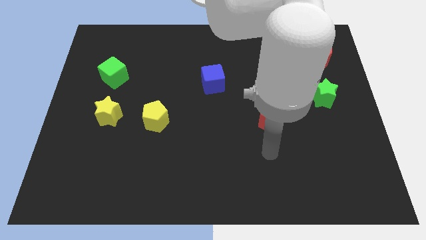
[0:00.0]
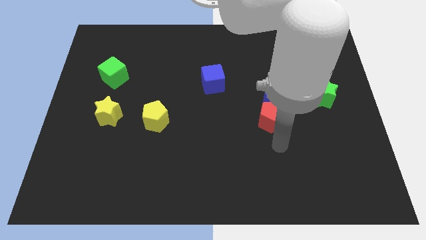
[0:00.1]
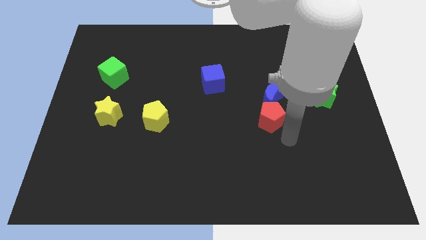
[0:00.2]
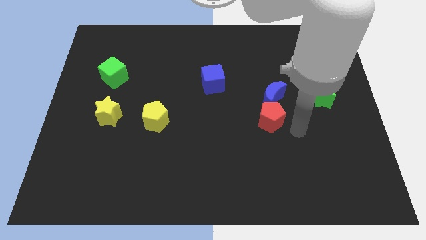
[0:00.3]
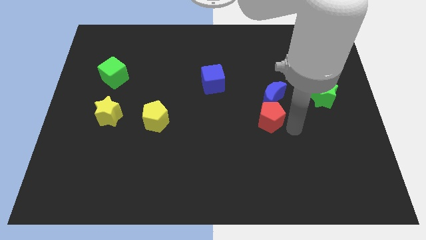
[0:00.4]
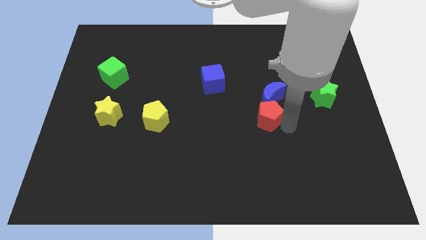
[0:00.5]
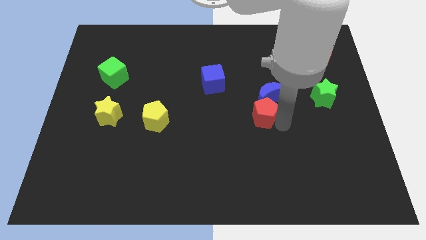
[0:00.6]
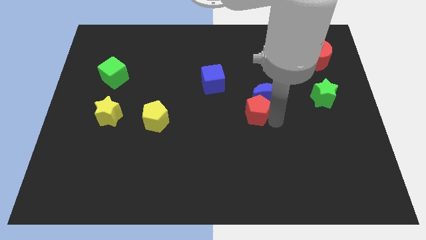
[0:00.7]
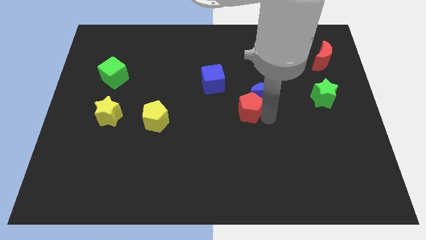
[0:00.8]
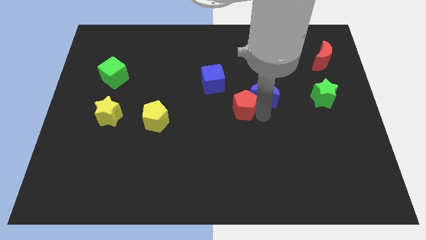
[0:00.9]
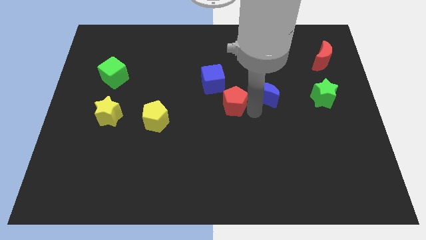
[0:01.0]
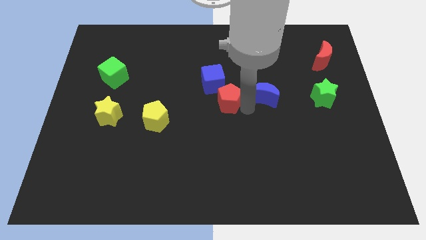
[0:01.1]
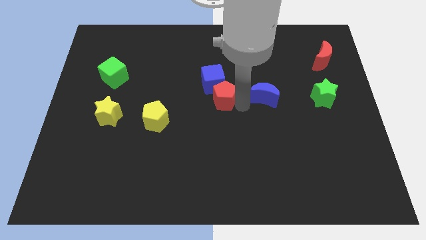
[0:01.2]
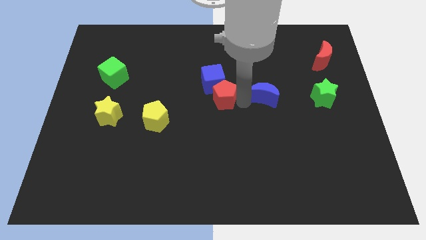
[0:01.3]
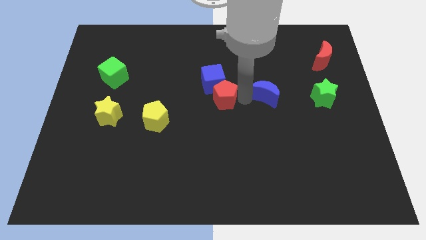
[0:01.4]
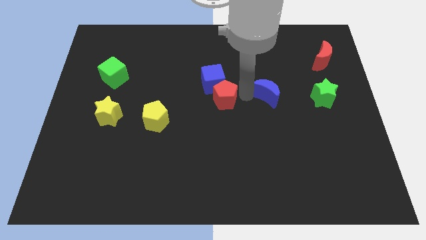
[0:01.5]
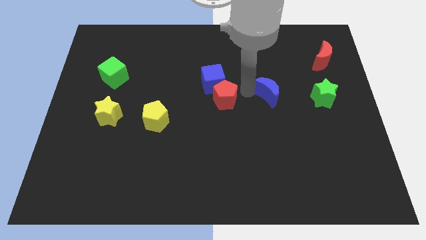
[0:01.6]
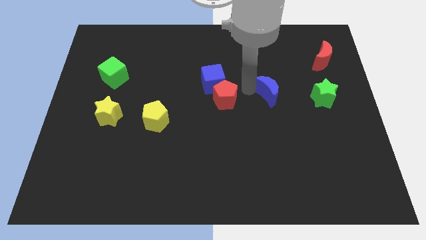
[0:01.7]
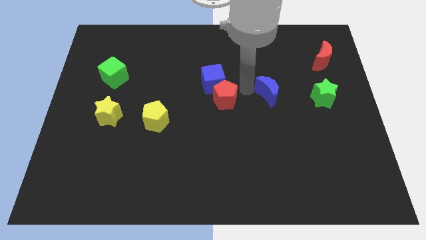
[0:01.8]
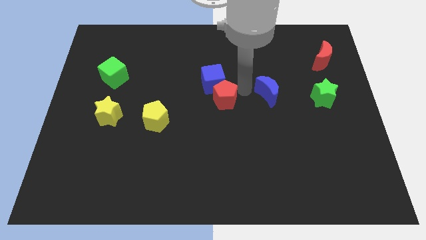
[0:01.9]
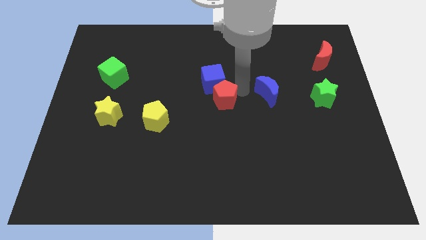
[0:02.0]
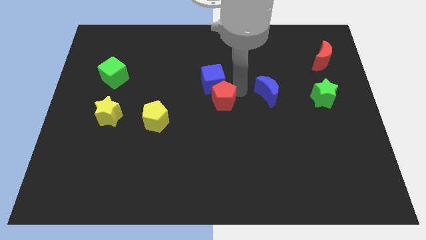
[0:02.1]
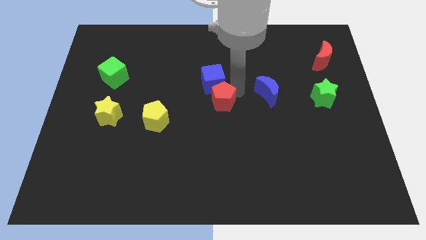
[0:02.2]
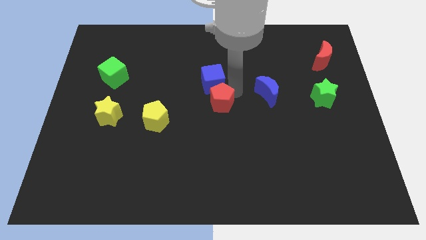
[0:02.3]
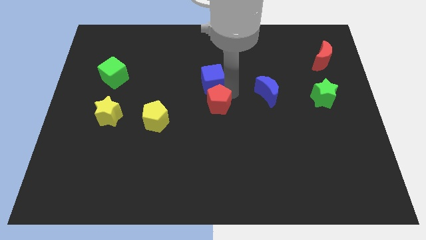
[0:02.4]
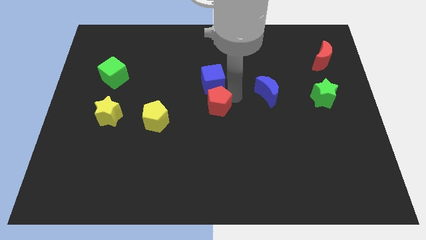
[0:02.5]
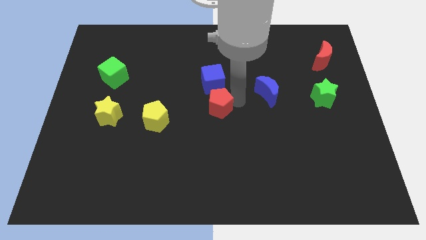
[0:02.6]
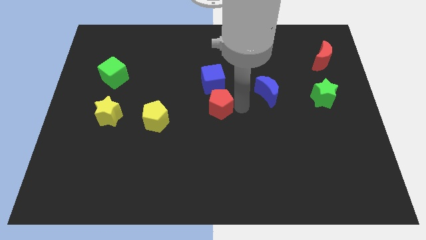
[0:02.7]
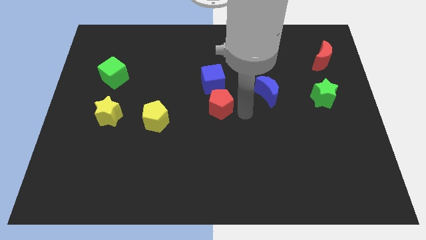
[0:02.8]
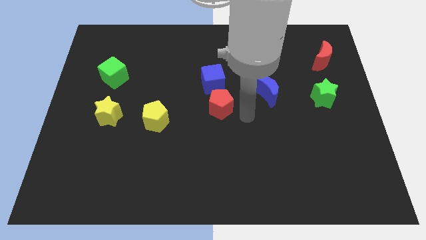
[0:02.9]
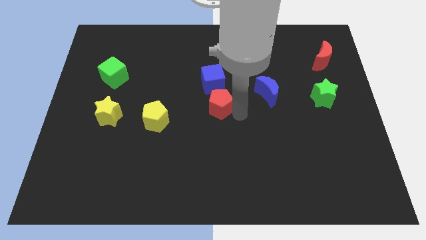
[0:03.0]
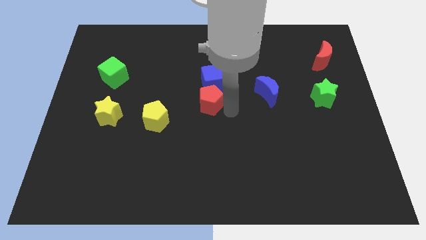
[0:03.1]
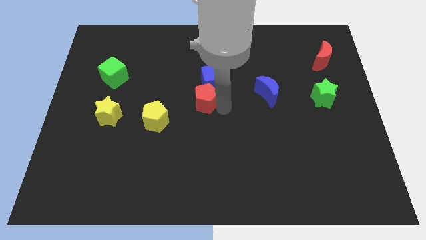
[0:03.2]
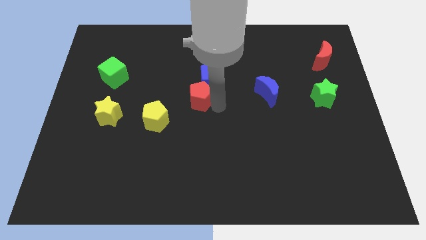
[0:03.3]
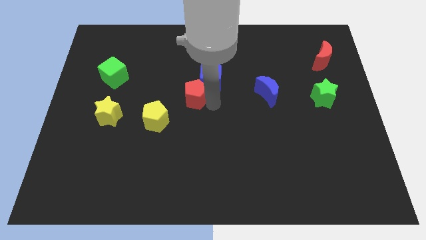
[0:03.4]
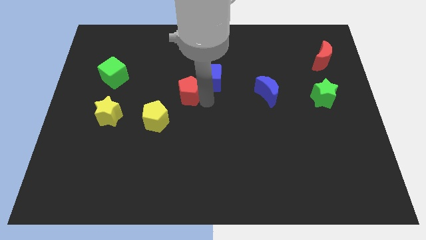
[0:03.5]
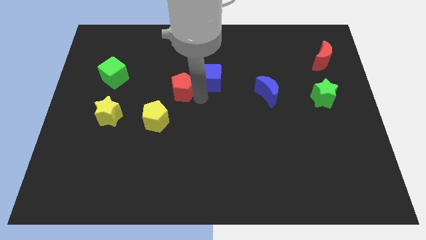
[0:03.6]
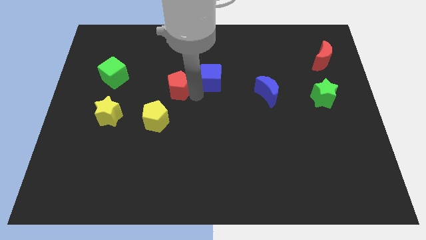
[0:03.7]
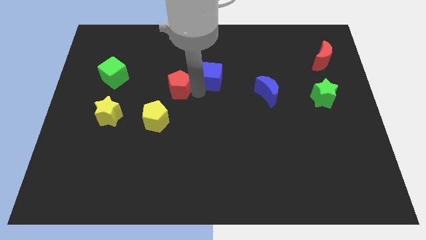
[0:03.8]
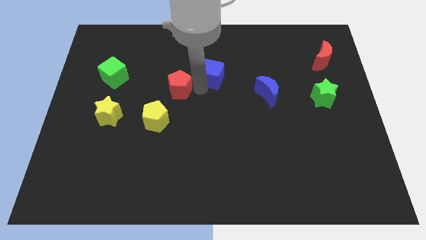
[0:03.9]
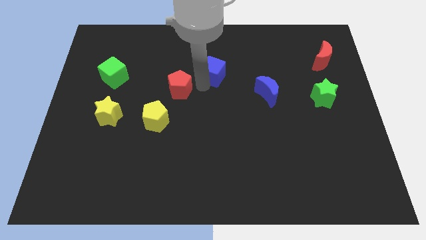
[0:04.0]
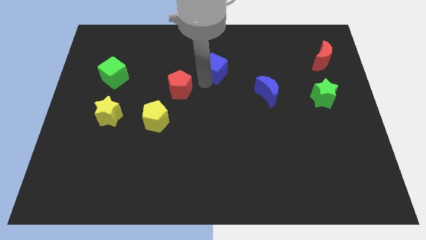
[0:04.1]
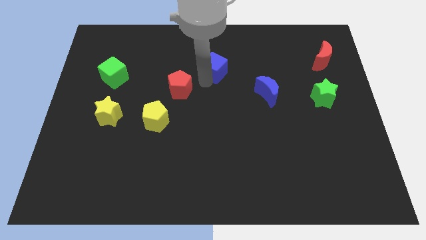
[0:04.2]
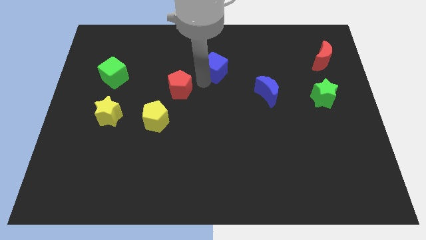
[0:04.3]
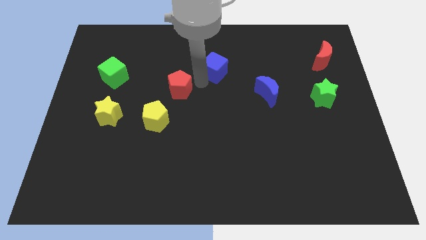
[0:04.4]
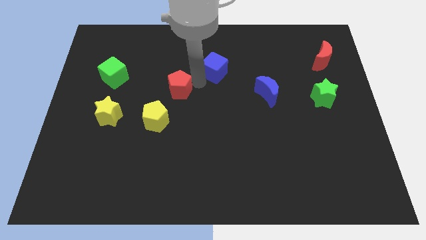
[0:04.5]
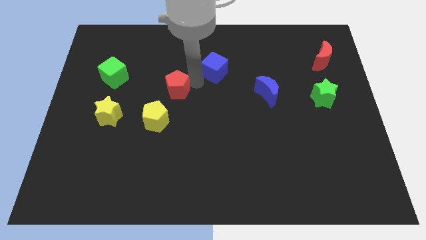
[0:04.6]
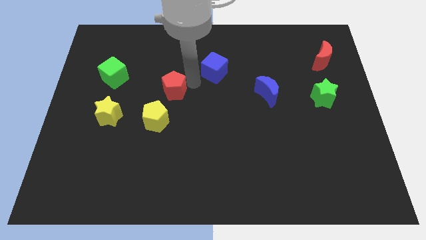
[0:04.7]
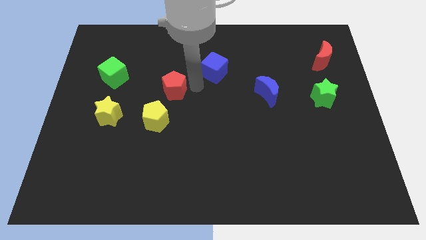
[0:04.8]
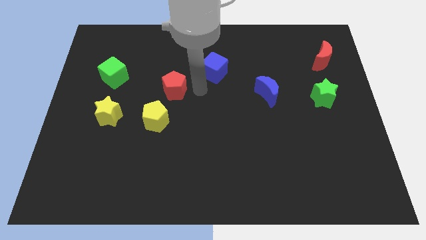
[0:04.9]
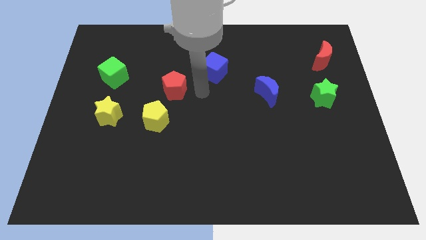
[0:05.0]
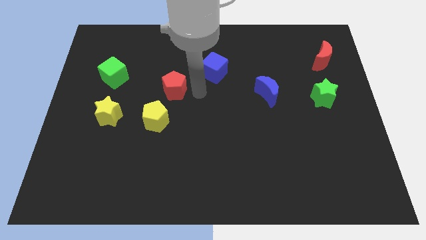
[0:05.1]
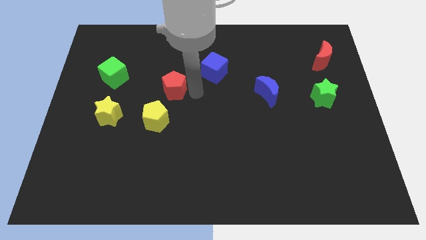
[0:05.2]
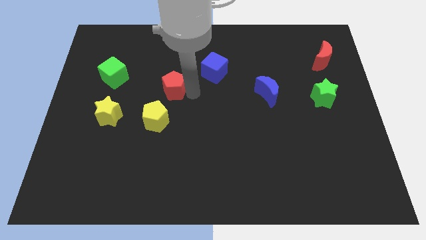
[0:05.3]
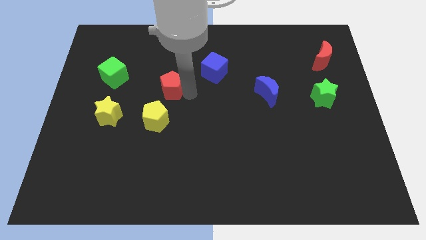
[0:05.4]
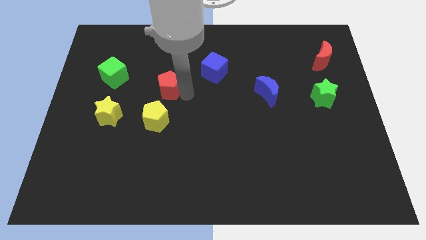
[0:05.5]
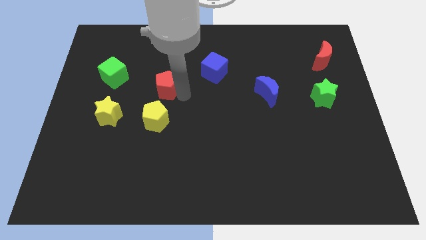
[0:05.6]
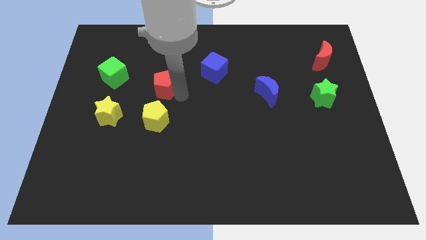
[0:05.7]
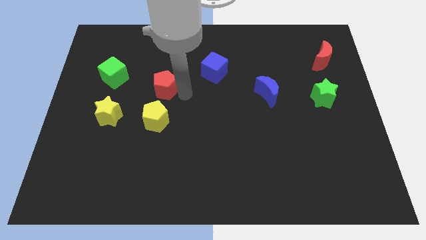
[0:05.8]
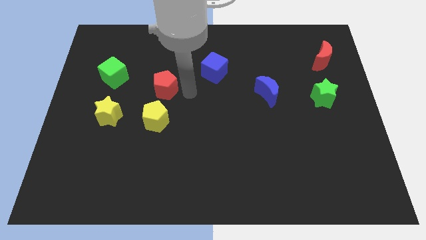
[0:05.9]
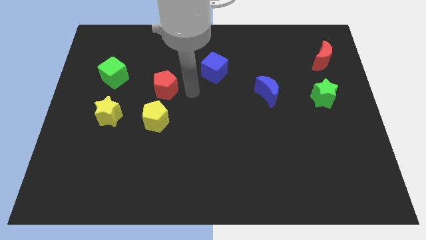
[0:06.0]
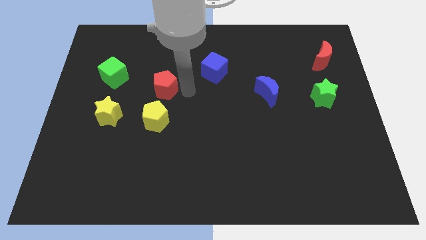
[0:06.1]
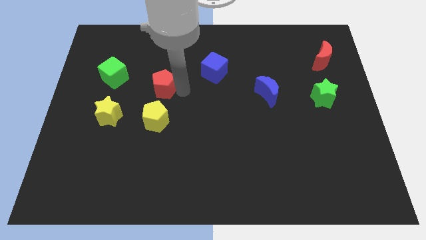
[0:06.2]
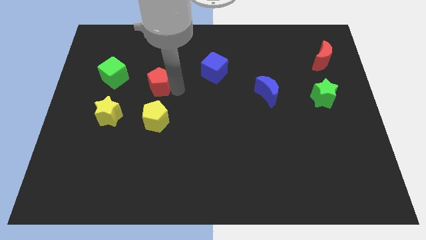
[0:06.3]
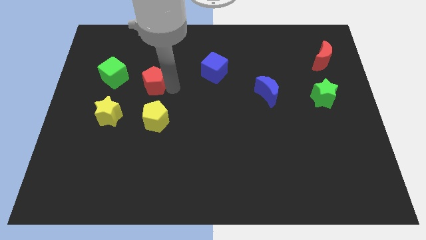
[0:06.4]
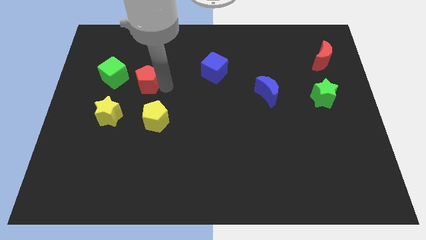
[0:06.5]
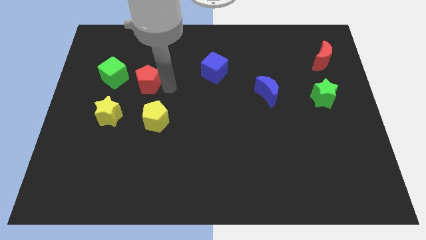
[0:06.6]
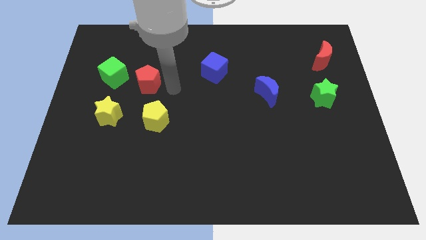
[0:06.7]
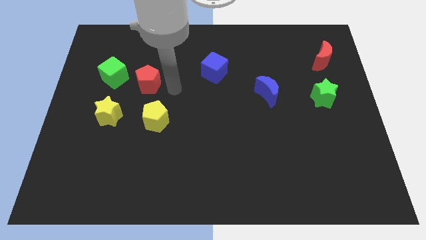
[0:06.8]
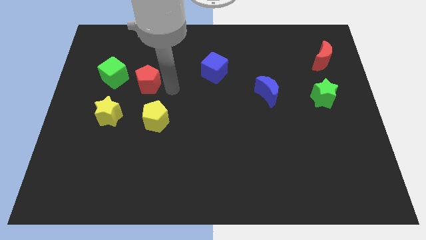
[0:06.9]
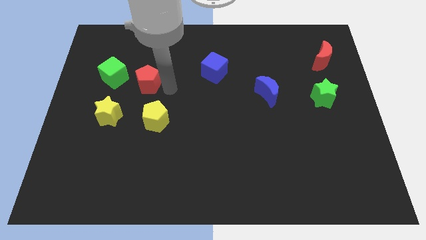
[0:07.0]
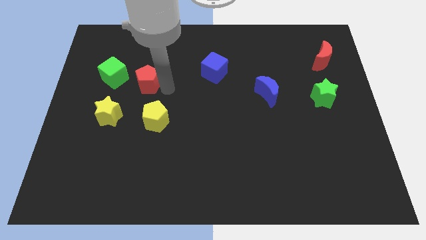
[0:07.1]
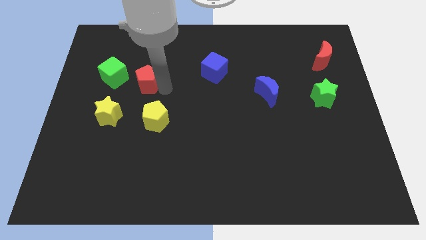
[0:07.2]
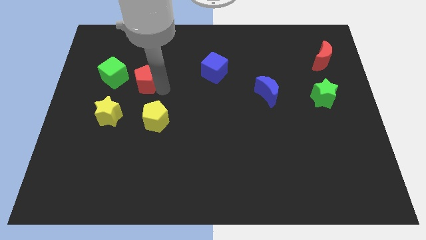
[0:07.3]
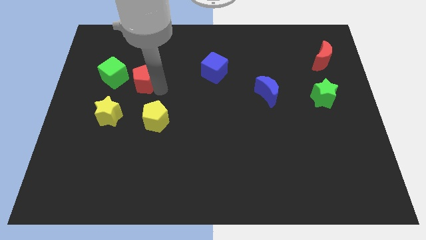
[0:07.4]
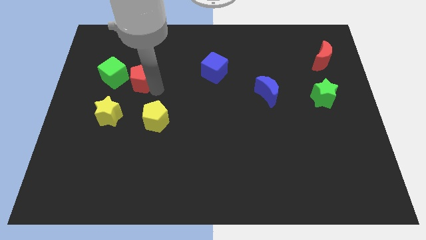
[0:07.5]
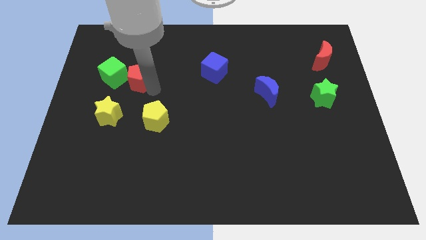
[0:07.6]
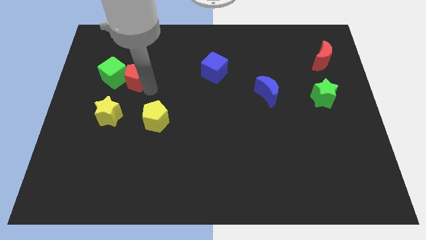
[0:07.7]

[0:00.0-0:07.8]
push the red pentagon next to the green cube
